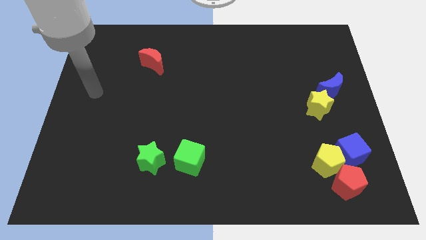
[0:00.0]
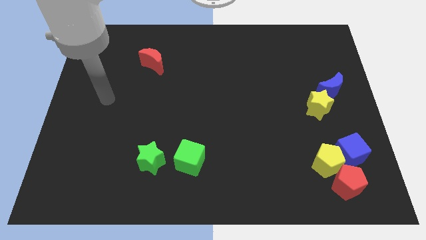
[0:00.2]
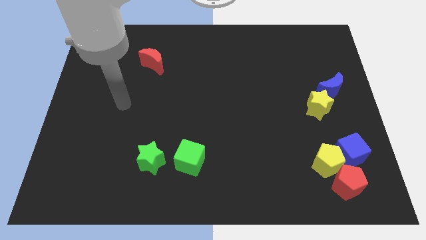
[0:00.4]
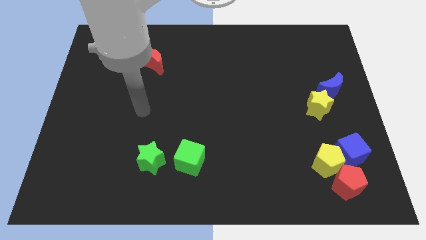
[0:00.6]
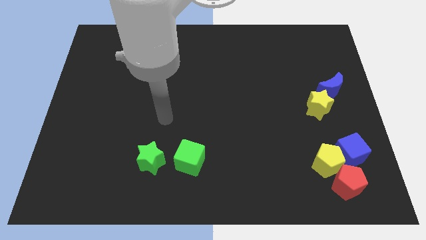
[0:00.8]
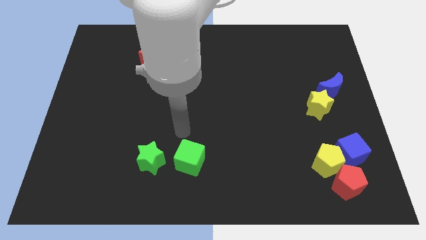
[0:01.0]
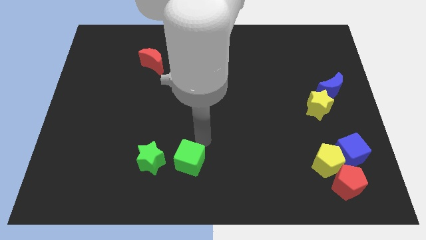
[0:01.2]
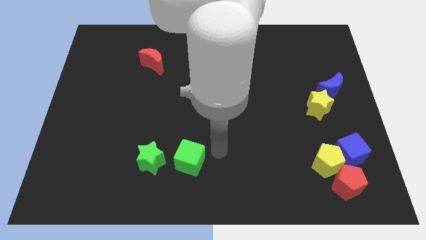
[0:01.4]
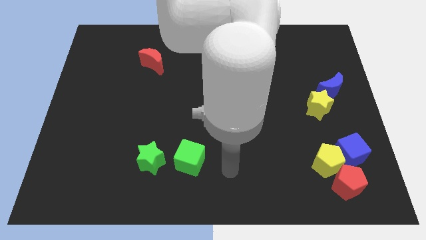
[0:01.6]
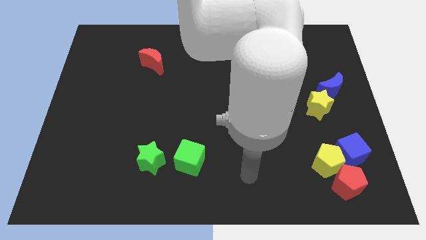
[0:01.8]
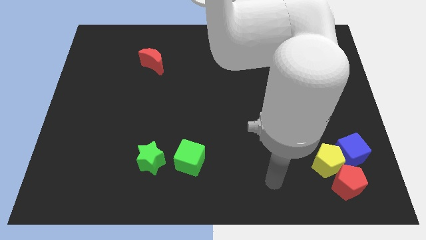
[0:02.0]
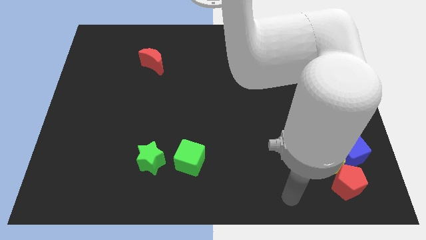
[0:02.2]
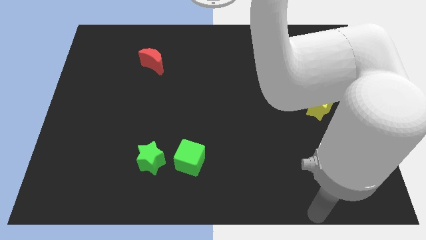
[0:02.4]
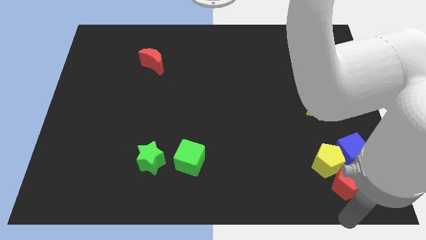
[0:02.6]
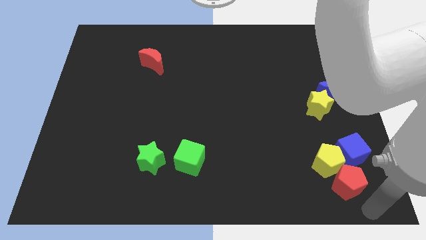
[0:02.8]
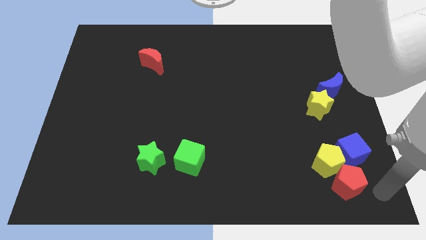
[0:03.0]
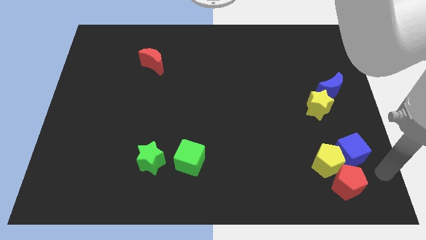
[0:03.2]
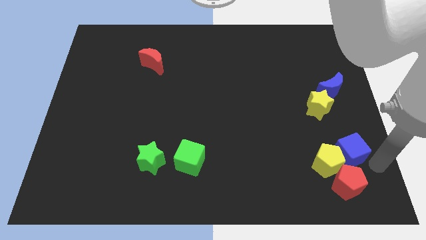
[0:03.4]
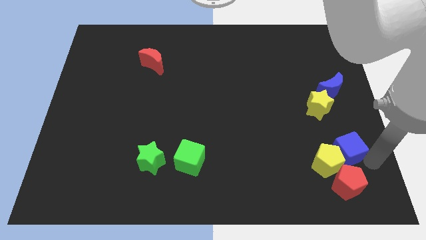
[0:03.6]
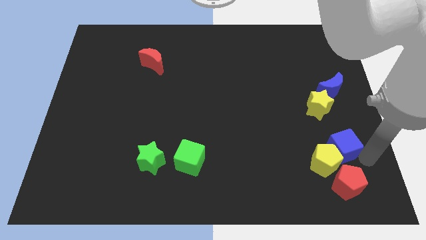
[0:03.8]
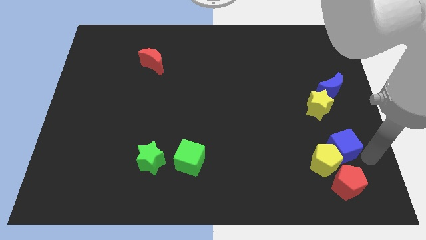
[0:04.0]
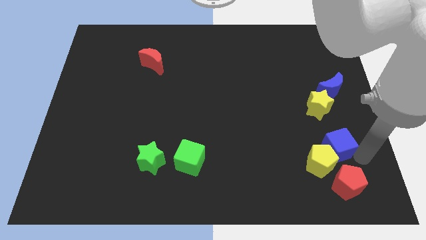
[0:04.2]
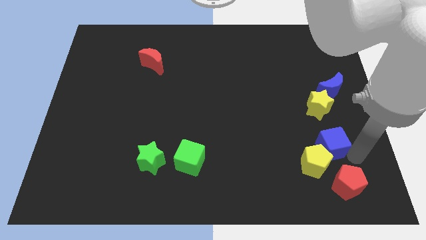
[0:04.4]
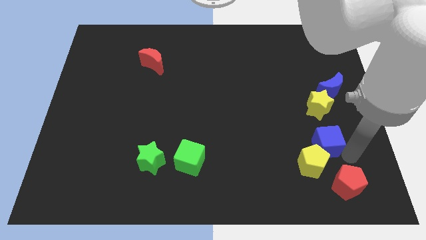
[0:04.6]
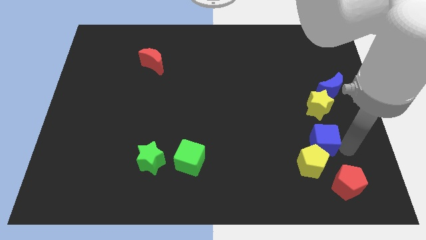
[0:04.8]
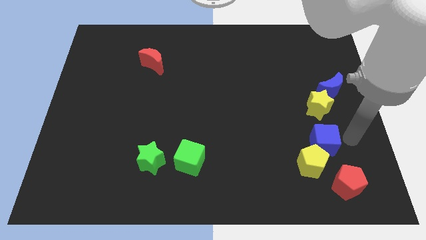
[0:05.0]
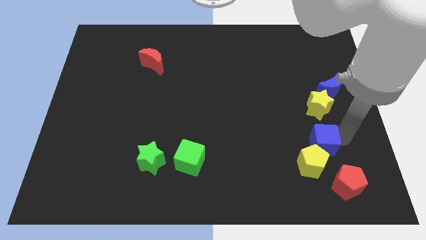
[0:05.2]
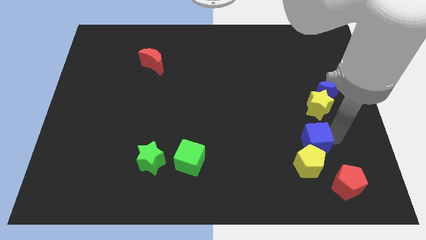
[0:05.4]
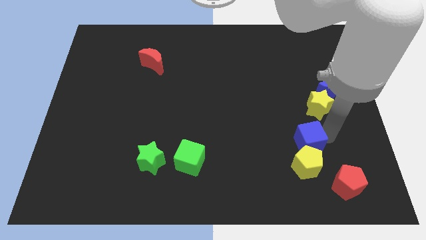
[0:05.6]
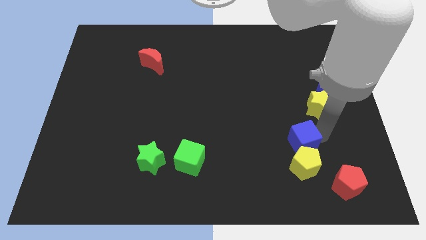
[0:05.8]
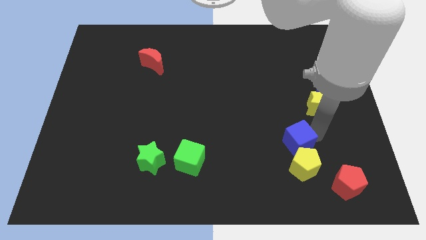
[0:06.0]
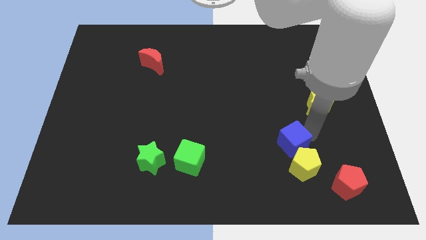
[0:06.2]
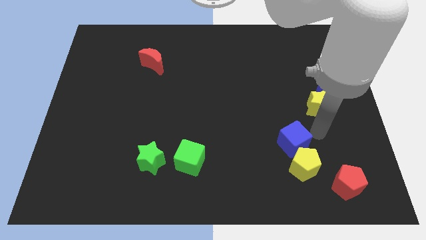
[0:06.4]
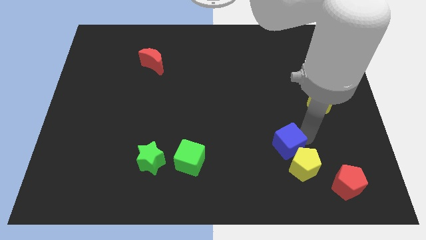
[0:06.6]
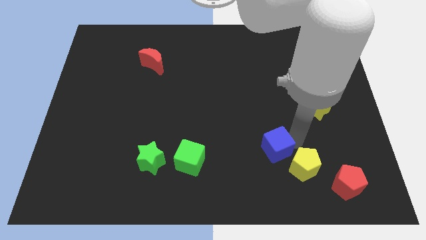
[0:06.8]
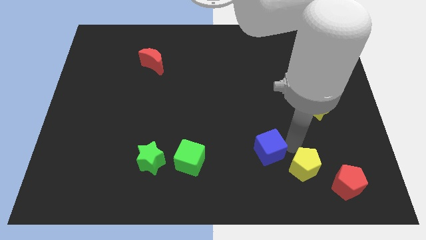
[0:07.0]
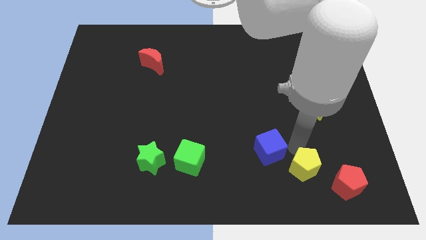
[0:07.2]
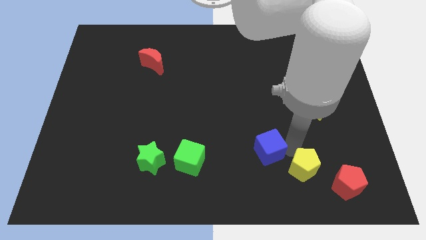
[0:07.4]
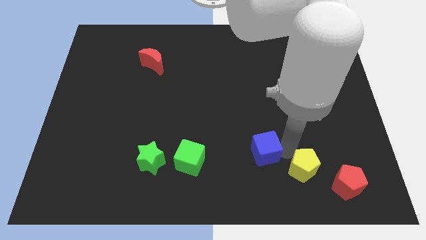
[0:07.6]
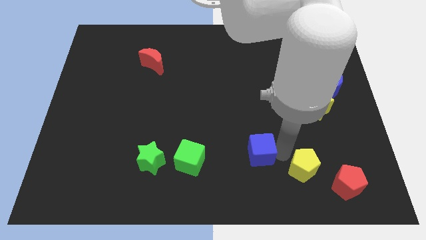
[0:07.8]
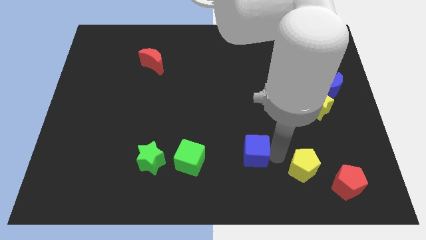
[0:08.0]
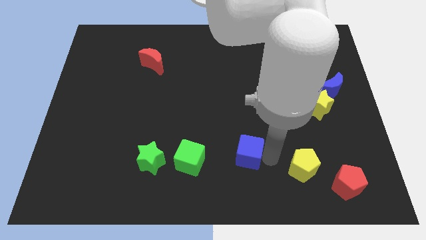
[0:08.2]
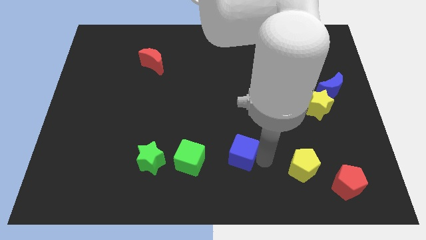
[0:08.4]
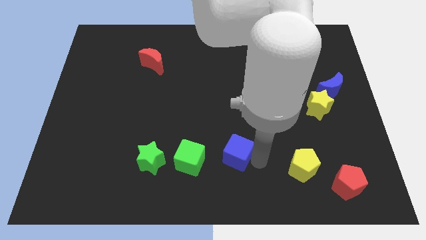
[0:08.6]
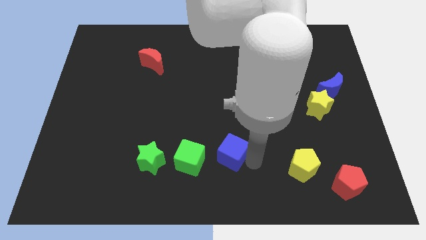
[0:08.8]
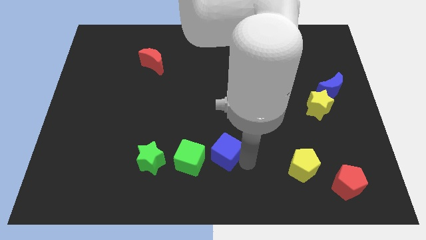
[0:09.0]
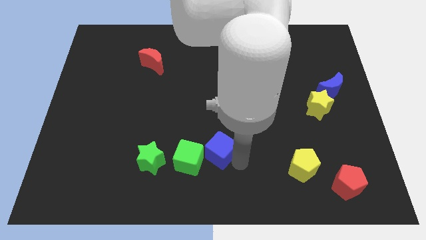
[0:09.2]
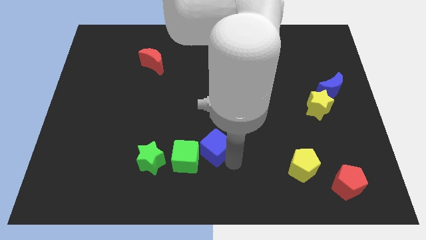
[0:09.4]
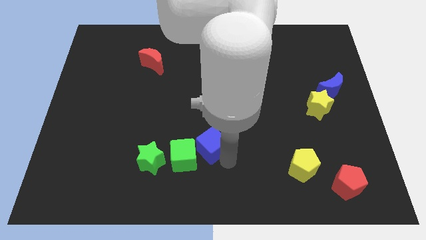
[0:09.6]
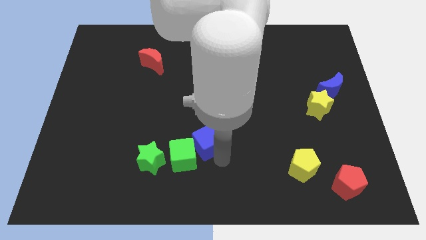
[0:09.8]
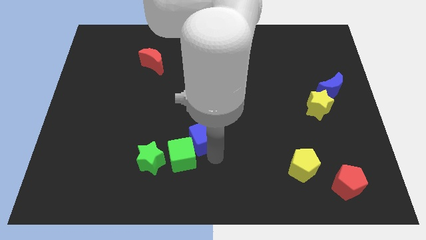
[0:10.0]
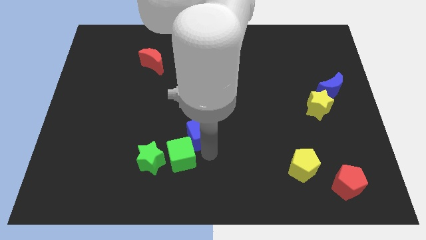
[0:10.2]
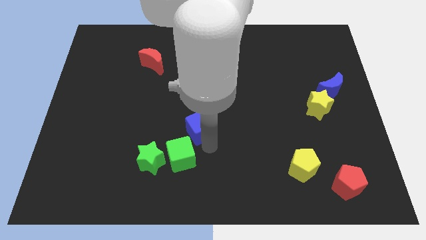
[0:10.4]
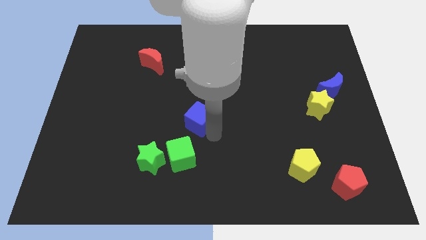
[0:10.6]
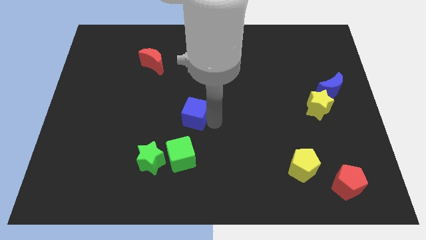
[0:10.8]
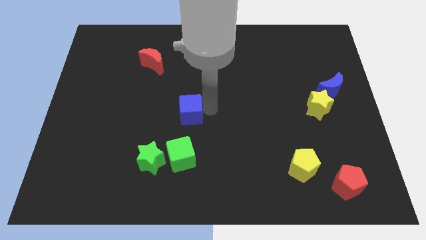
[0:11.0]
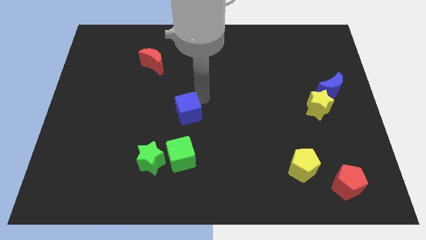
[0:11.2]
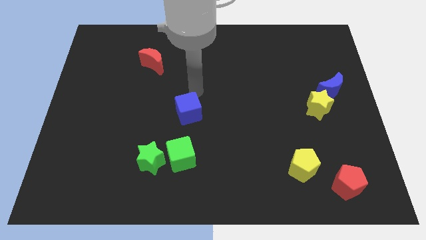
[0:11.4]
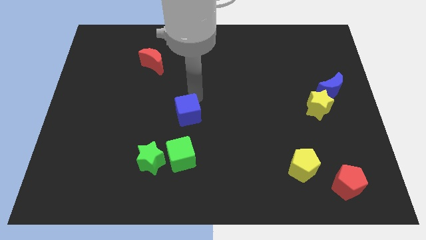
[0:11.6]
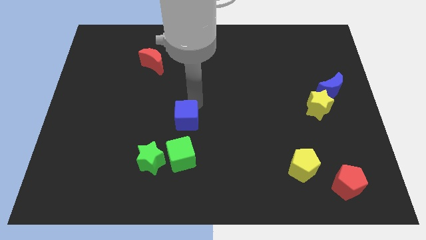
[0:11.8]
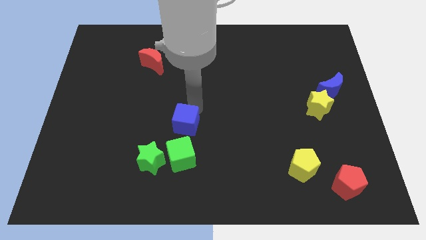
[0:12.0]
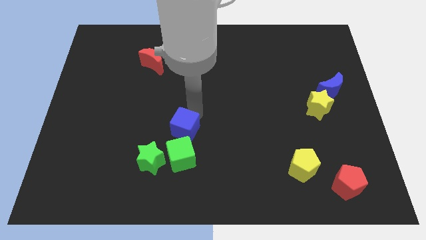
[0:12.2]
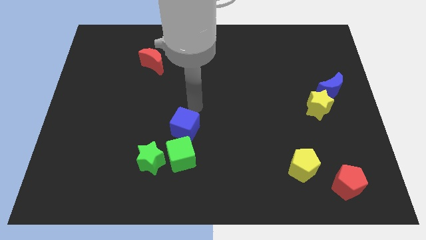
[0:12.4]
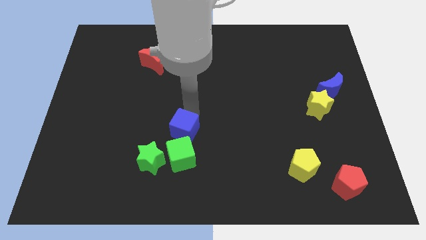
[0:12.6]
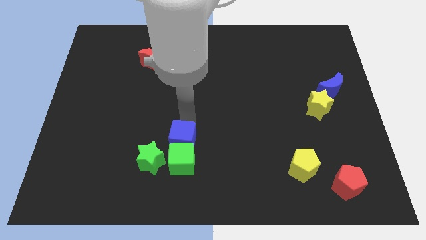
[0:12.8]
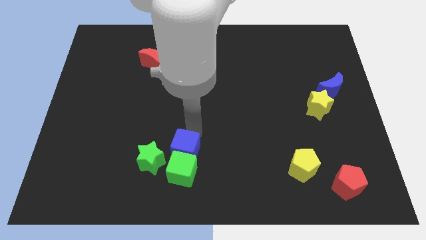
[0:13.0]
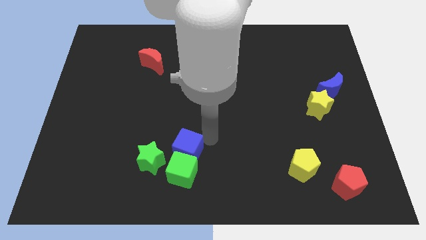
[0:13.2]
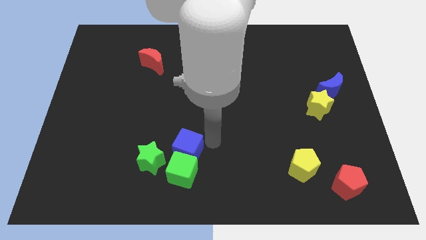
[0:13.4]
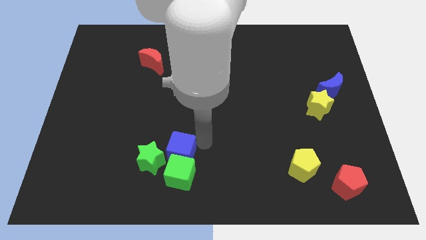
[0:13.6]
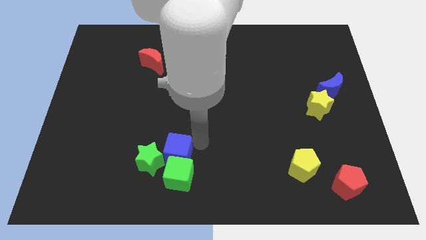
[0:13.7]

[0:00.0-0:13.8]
put the blue cube next to the green star
